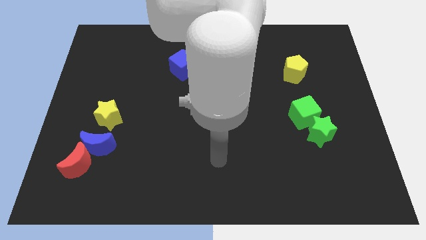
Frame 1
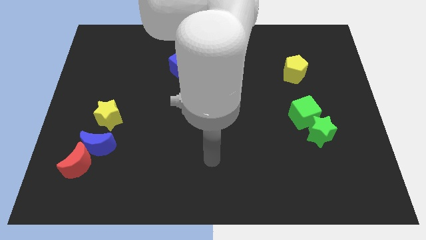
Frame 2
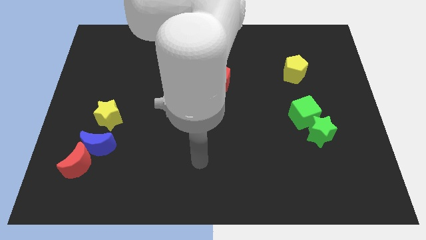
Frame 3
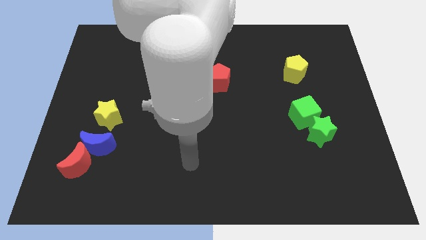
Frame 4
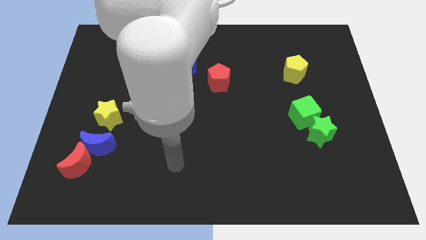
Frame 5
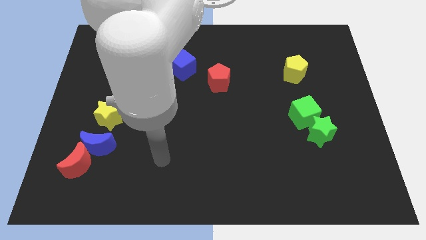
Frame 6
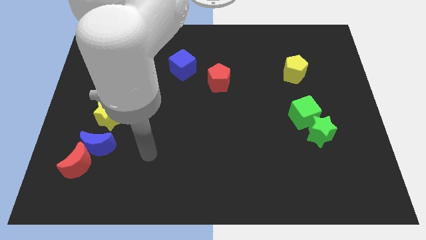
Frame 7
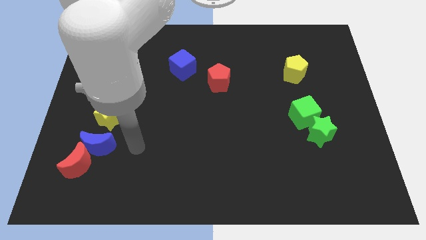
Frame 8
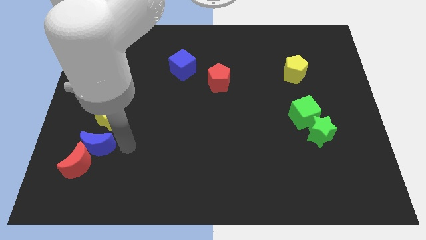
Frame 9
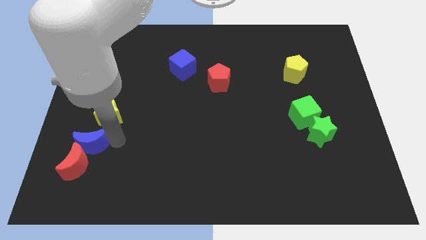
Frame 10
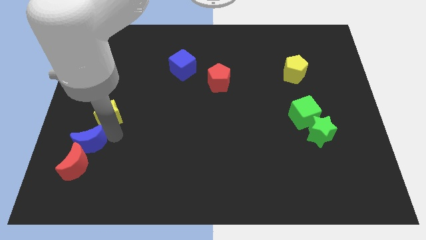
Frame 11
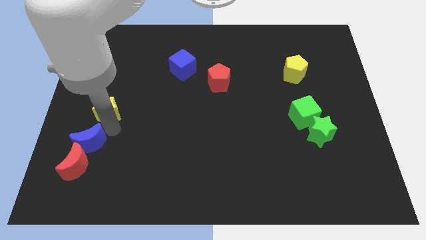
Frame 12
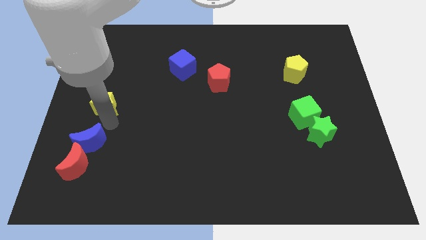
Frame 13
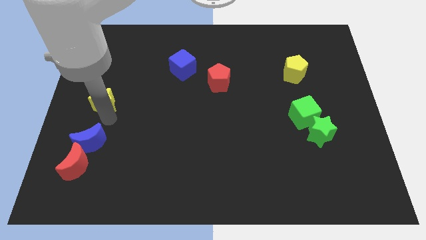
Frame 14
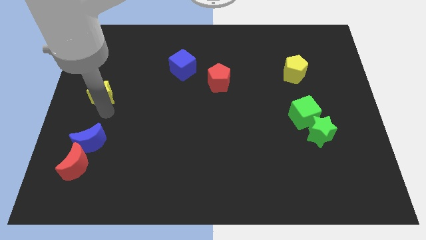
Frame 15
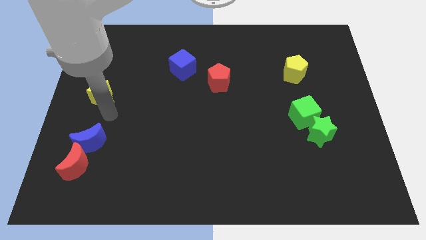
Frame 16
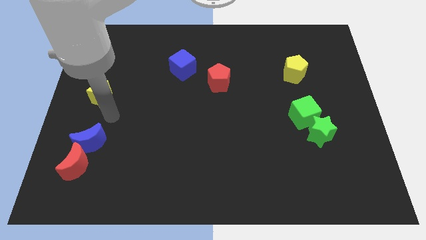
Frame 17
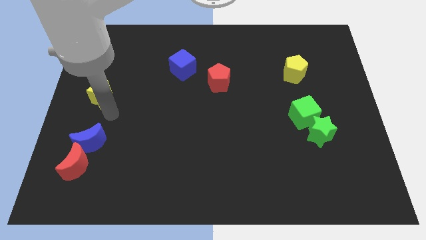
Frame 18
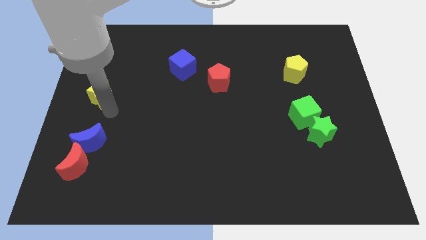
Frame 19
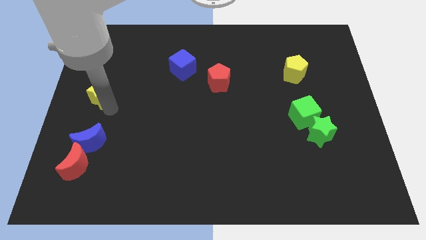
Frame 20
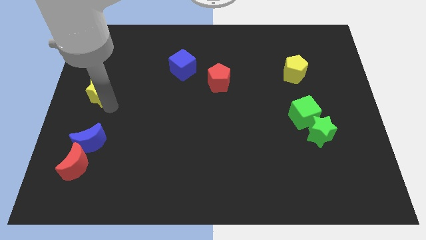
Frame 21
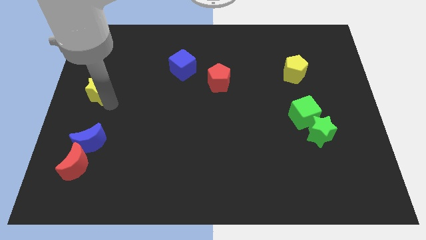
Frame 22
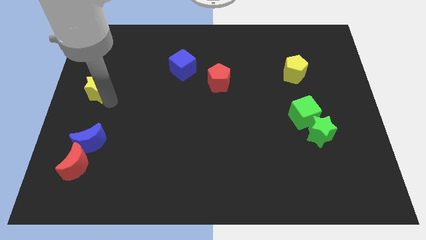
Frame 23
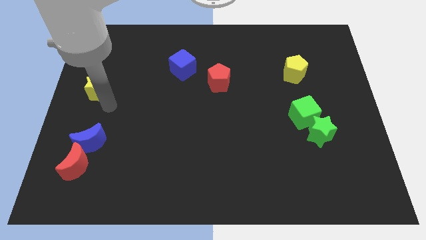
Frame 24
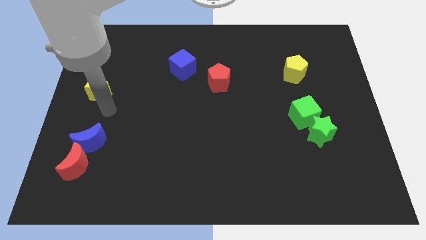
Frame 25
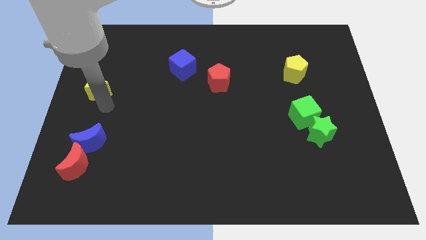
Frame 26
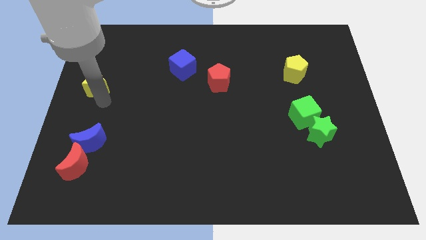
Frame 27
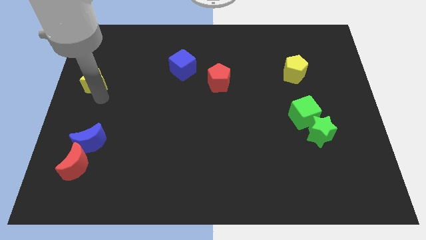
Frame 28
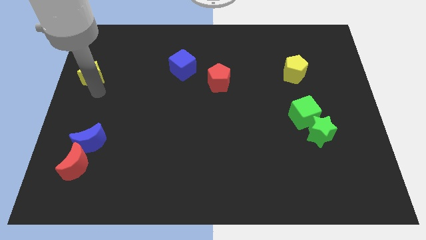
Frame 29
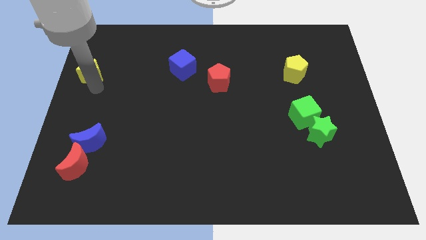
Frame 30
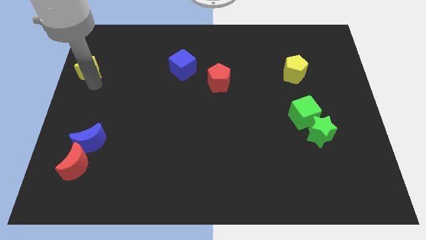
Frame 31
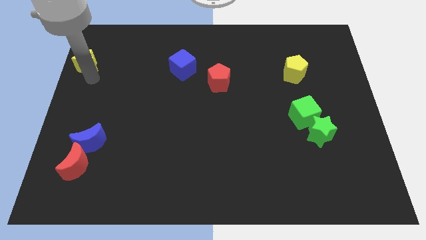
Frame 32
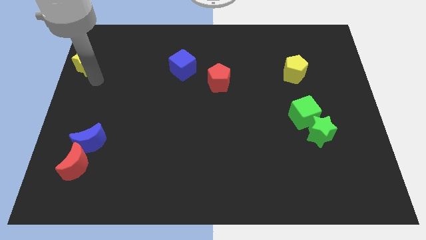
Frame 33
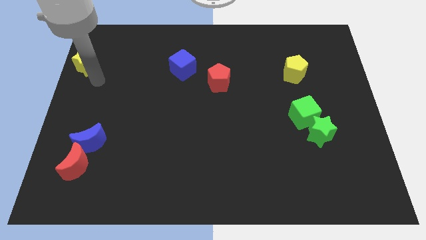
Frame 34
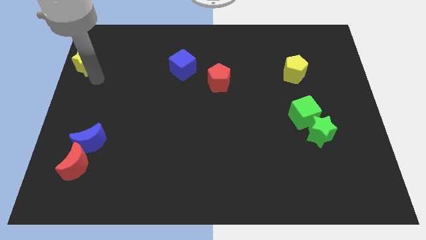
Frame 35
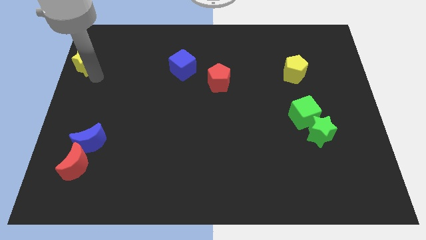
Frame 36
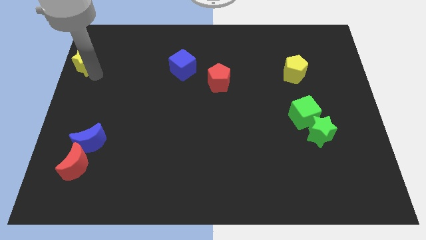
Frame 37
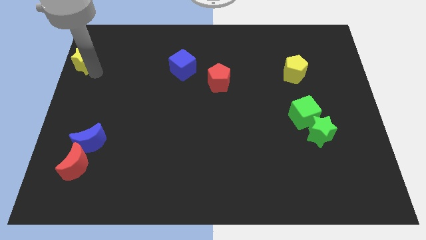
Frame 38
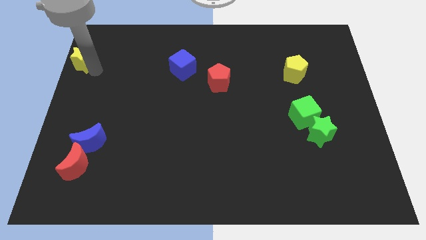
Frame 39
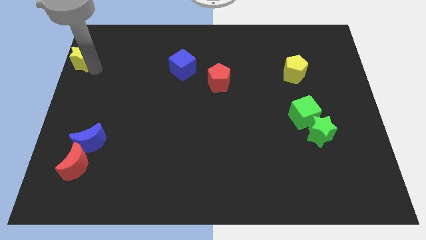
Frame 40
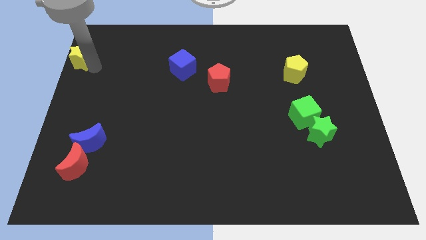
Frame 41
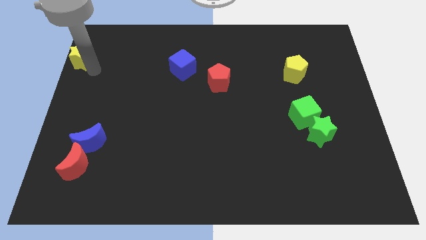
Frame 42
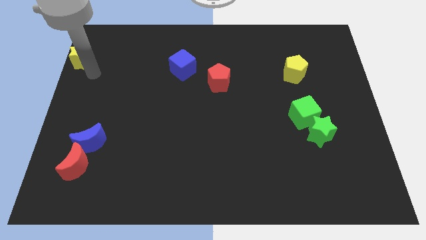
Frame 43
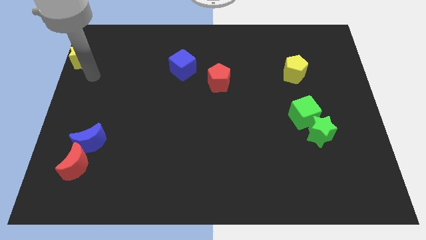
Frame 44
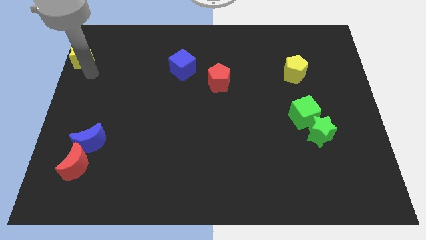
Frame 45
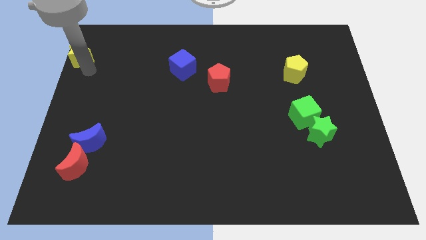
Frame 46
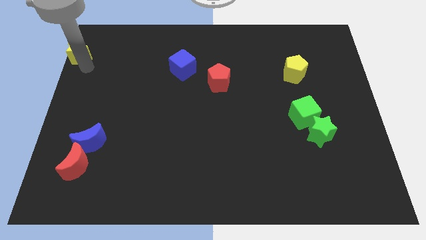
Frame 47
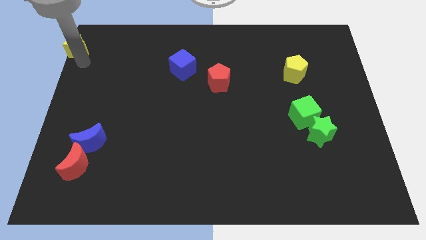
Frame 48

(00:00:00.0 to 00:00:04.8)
move the yellow star to the upper left corner

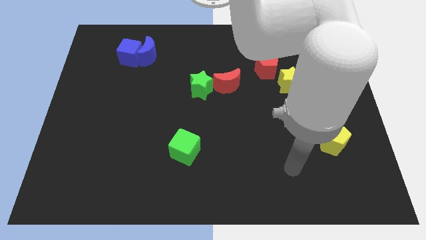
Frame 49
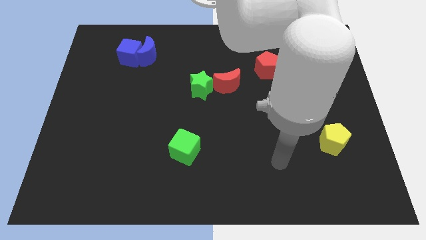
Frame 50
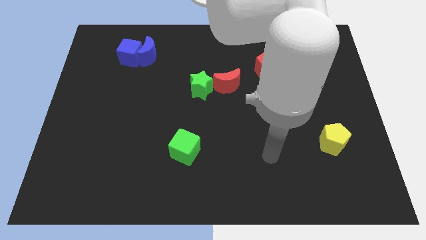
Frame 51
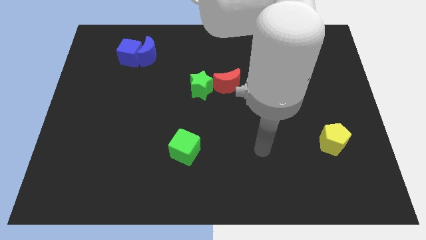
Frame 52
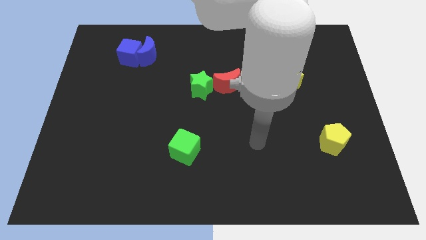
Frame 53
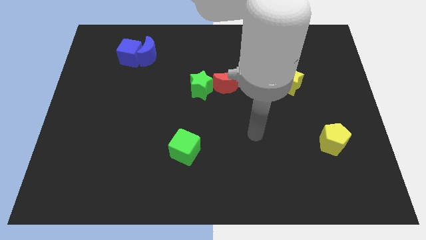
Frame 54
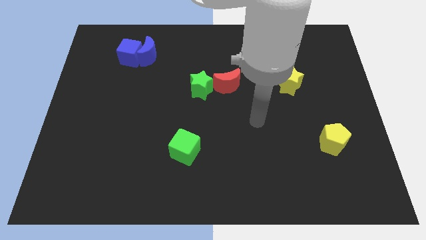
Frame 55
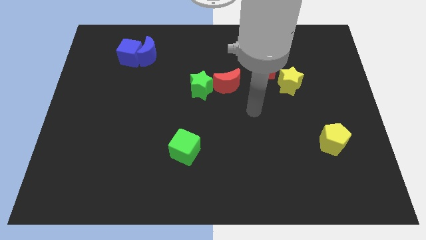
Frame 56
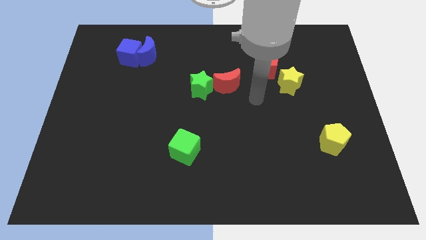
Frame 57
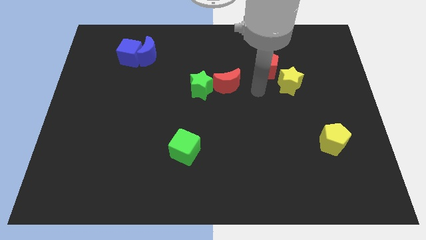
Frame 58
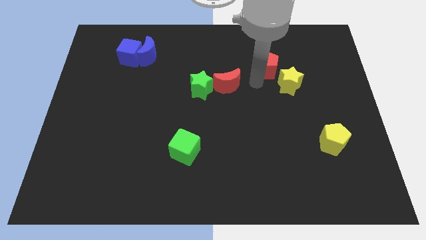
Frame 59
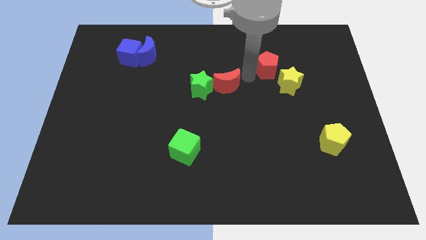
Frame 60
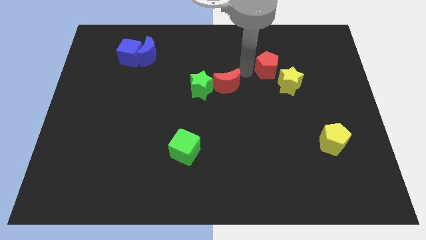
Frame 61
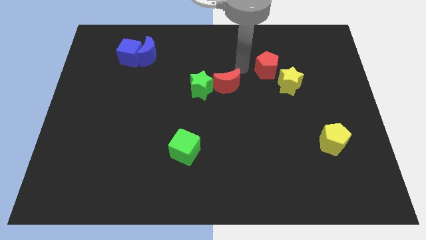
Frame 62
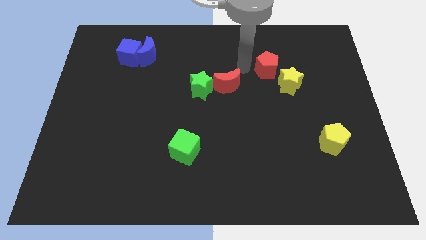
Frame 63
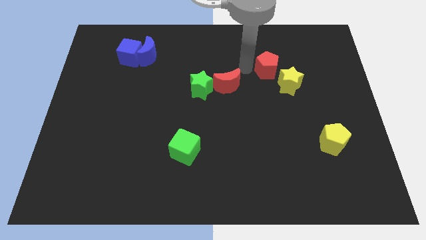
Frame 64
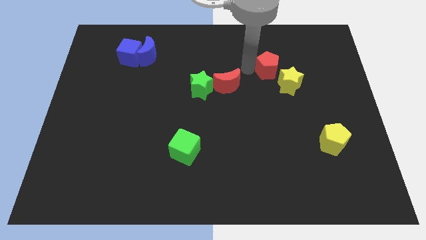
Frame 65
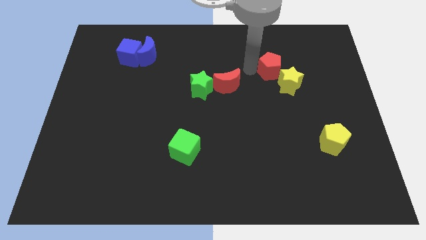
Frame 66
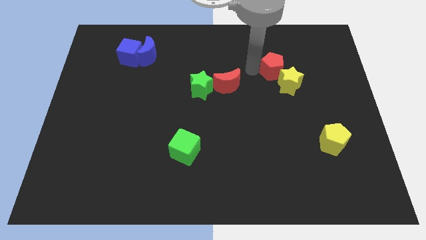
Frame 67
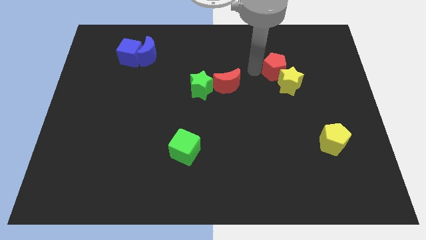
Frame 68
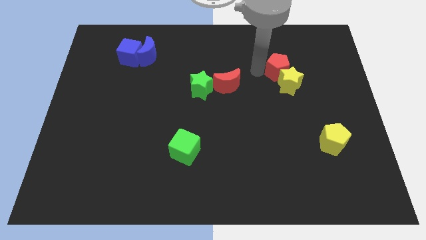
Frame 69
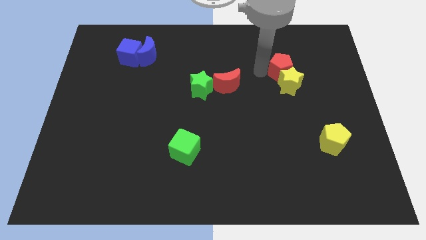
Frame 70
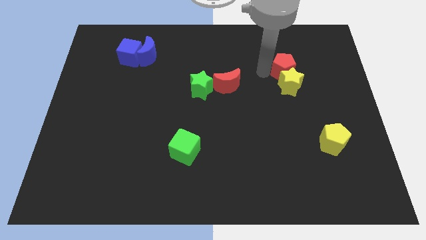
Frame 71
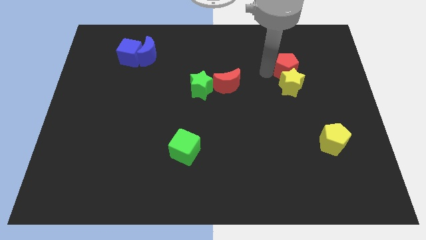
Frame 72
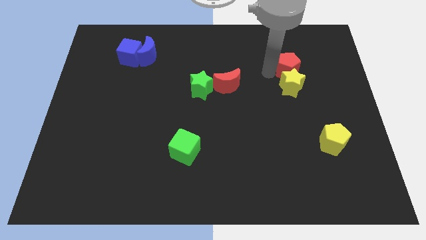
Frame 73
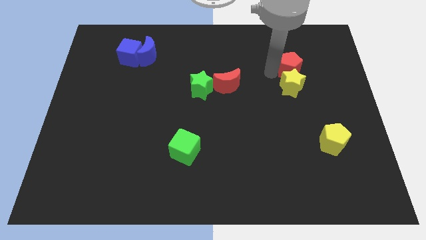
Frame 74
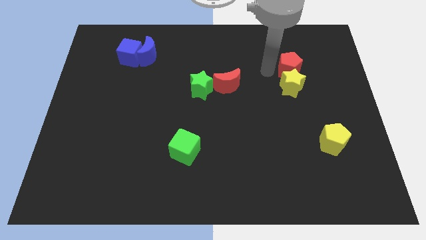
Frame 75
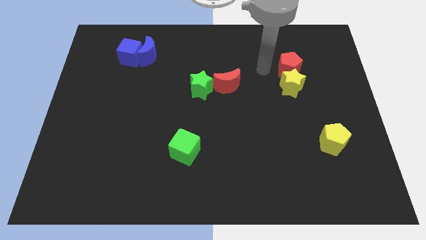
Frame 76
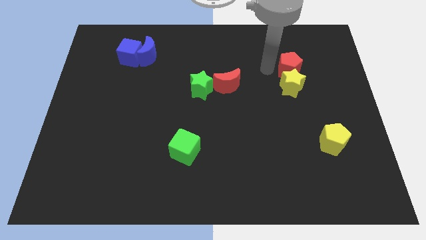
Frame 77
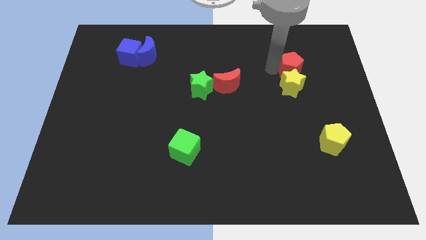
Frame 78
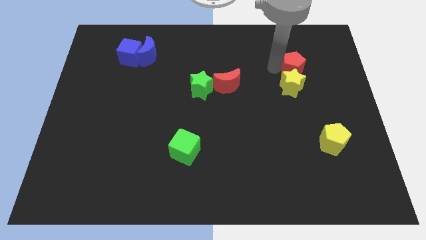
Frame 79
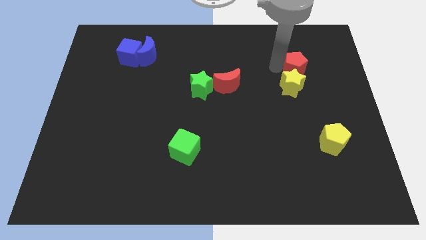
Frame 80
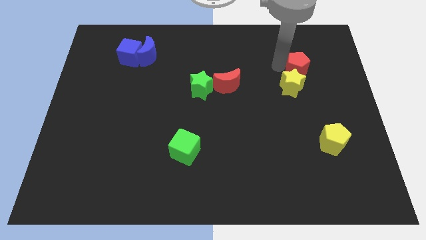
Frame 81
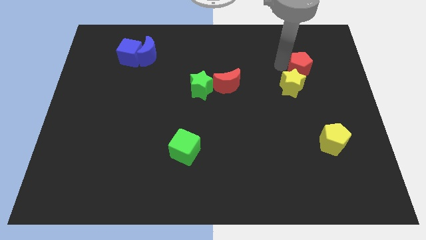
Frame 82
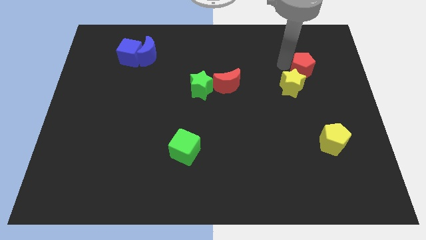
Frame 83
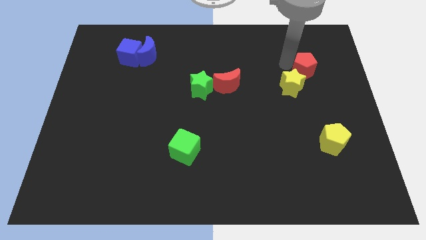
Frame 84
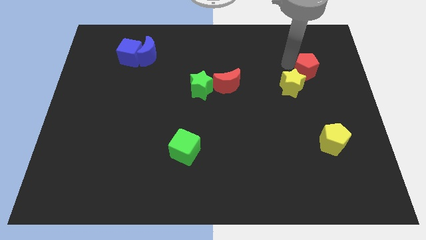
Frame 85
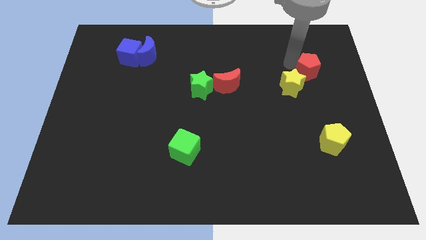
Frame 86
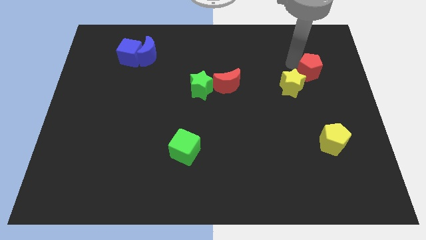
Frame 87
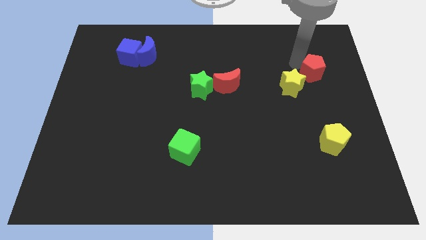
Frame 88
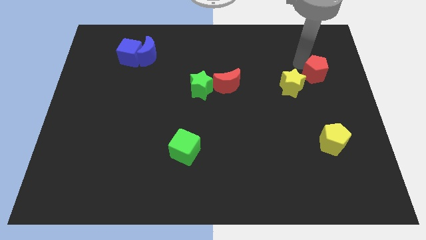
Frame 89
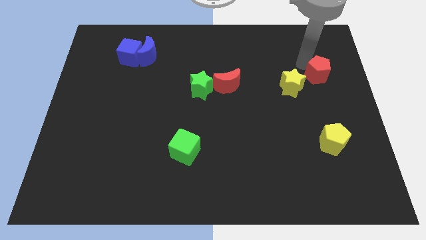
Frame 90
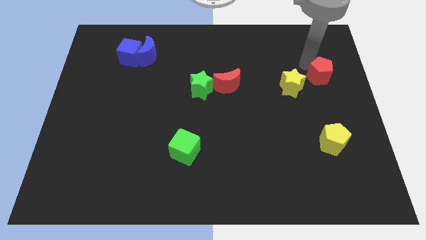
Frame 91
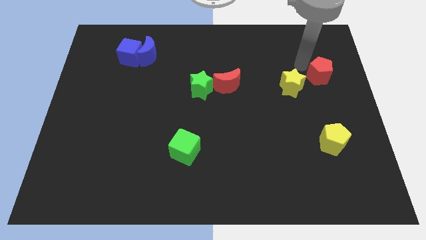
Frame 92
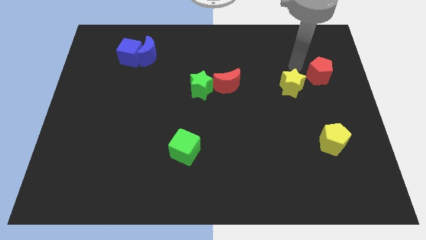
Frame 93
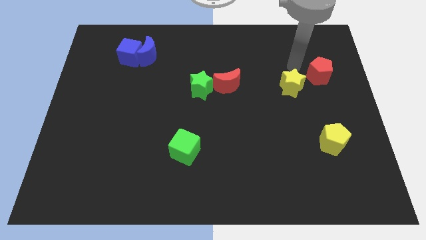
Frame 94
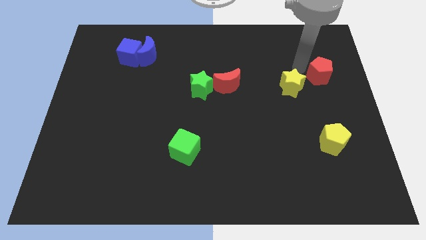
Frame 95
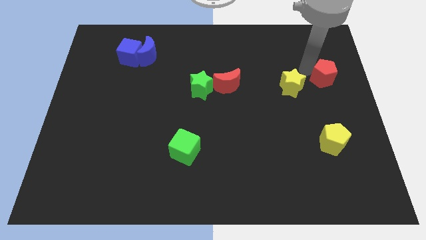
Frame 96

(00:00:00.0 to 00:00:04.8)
put the red pentagon to the right side of the board
